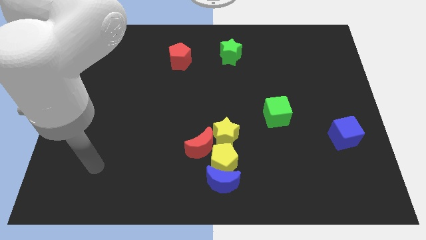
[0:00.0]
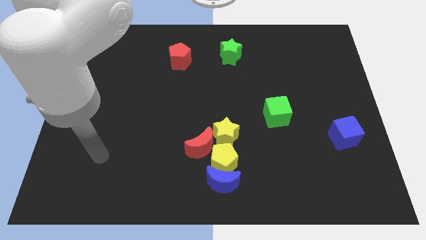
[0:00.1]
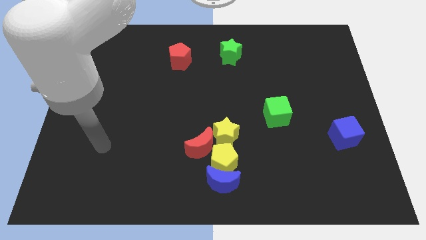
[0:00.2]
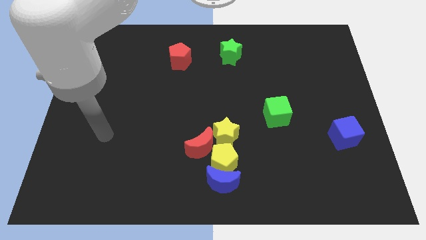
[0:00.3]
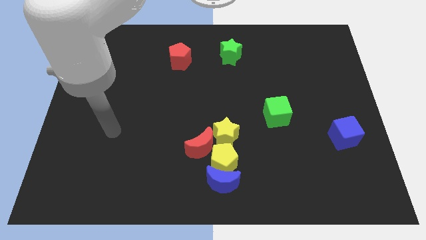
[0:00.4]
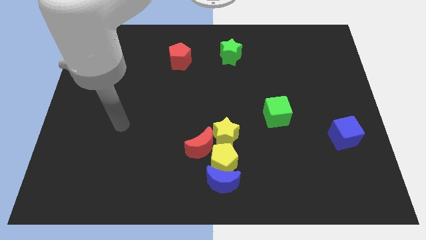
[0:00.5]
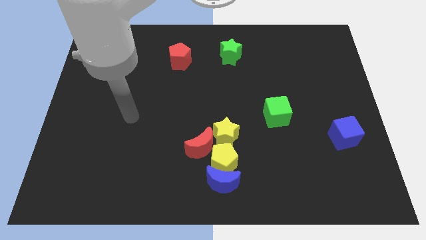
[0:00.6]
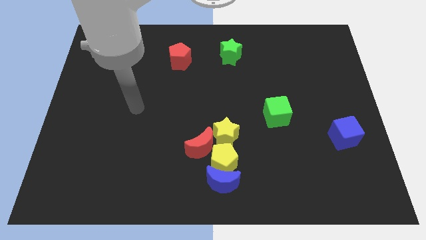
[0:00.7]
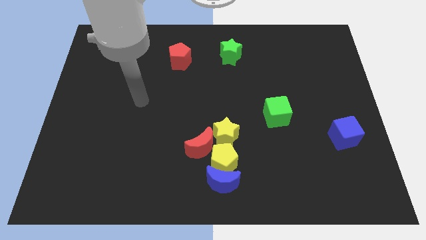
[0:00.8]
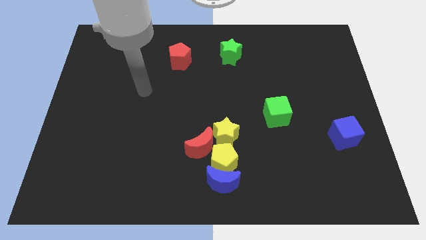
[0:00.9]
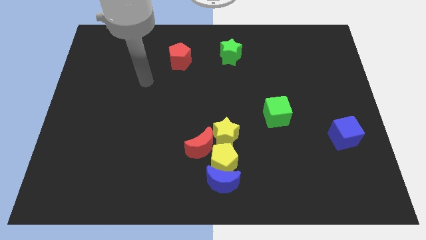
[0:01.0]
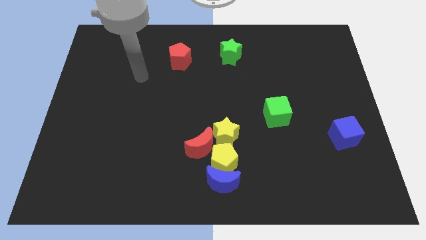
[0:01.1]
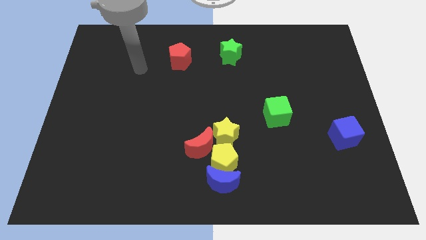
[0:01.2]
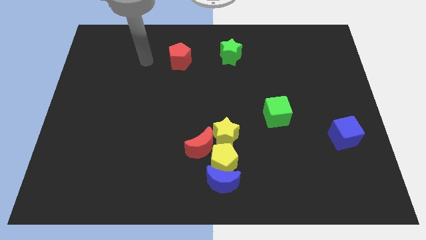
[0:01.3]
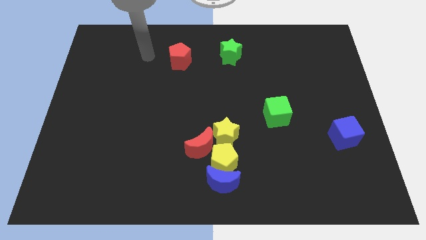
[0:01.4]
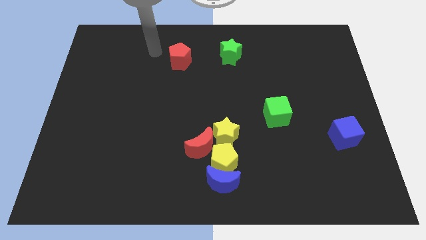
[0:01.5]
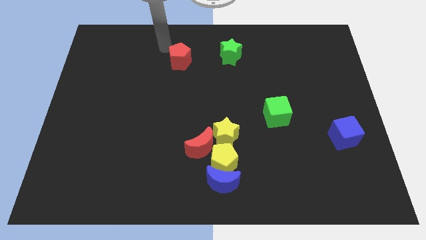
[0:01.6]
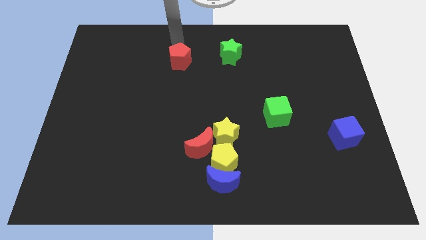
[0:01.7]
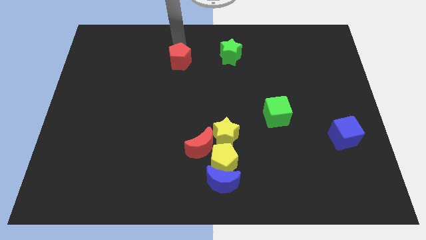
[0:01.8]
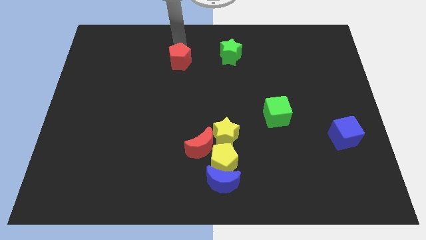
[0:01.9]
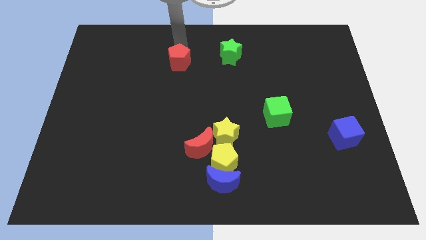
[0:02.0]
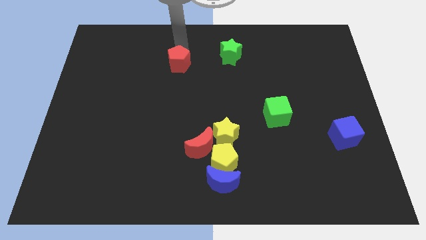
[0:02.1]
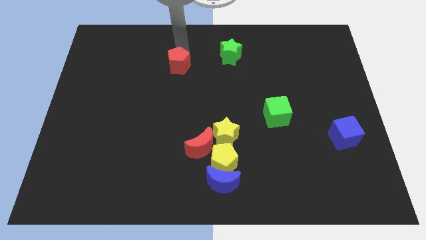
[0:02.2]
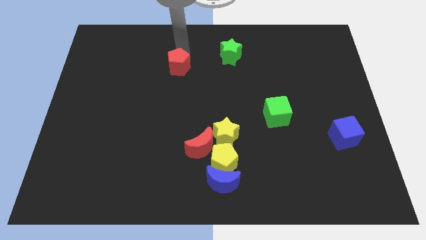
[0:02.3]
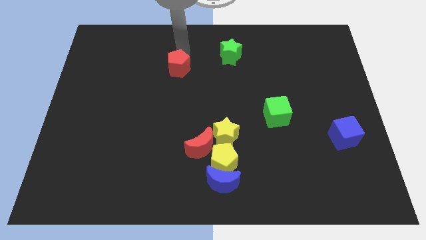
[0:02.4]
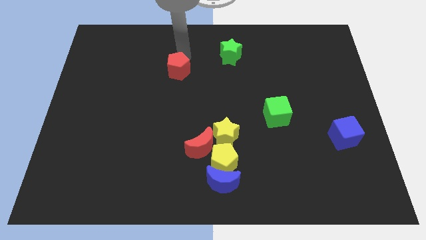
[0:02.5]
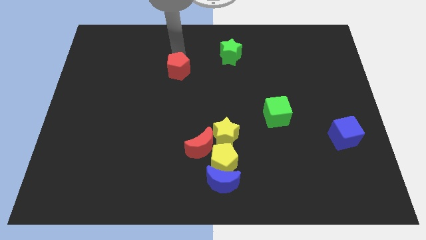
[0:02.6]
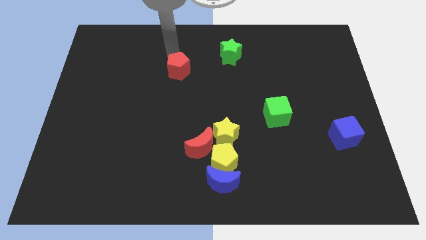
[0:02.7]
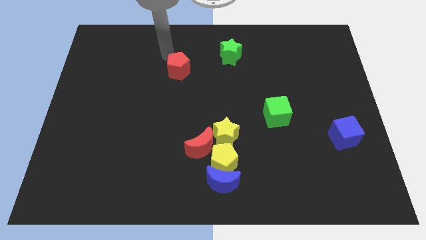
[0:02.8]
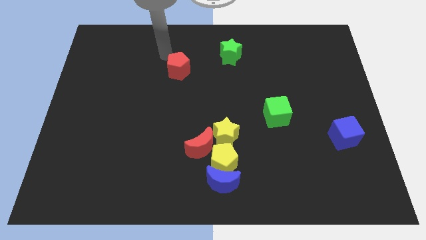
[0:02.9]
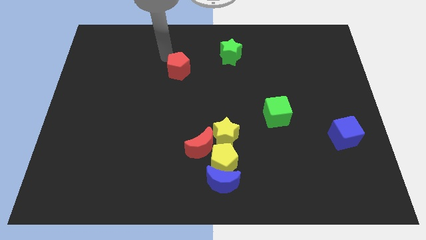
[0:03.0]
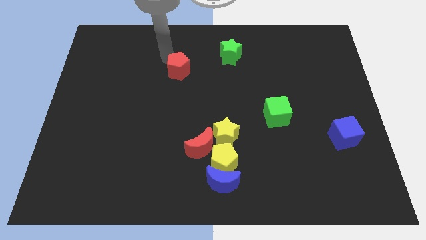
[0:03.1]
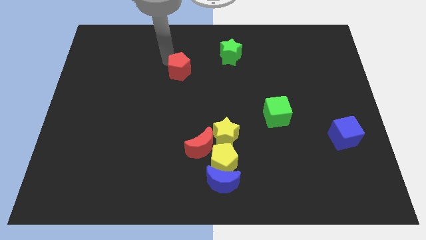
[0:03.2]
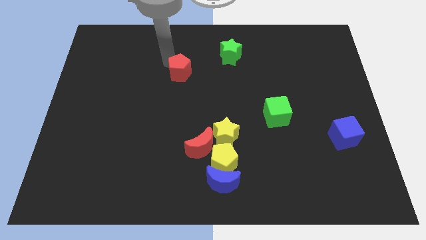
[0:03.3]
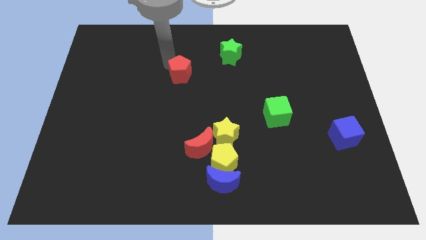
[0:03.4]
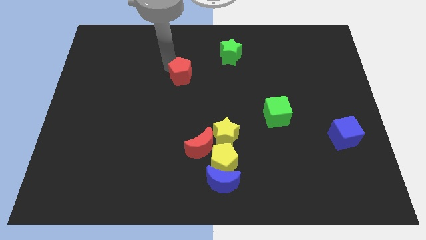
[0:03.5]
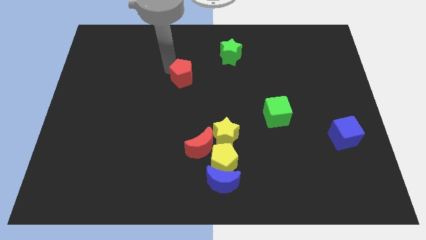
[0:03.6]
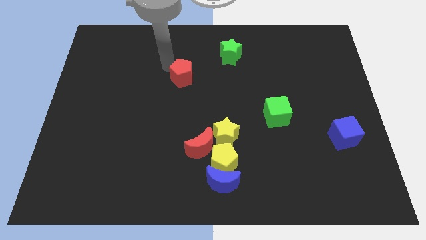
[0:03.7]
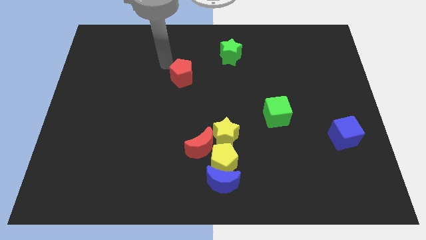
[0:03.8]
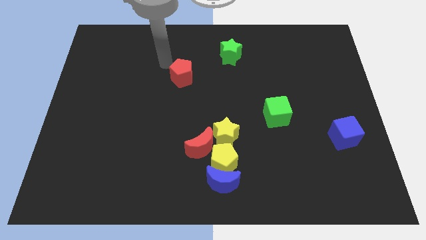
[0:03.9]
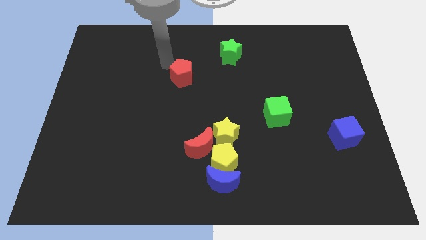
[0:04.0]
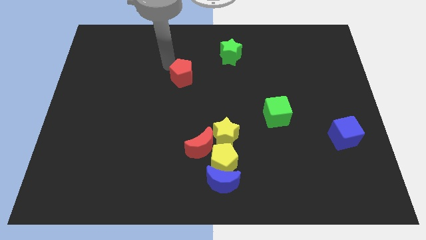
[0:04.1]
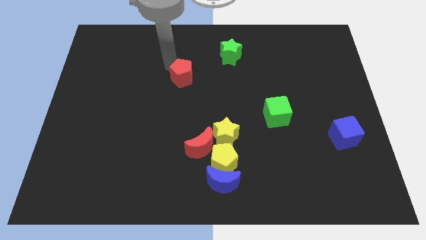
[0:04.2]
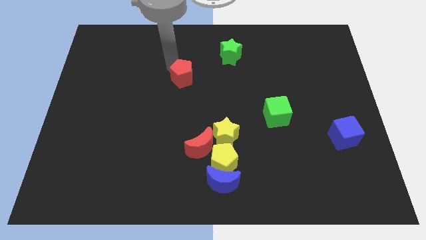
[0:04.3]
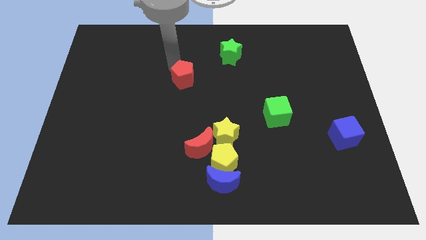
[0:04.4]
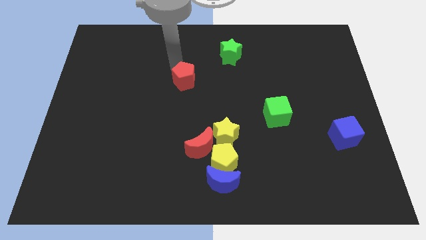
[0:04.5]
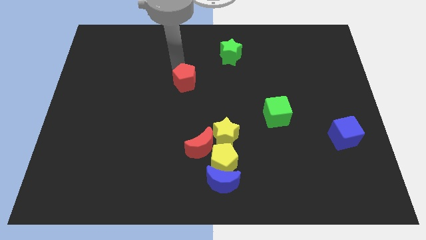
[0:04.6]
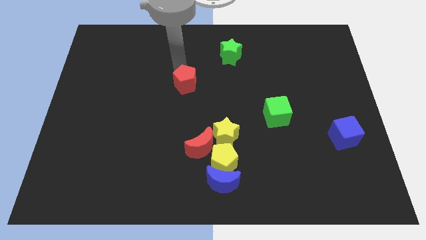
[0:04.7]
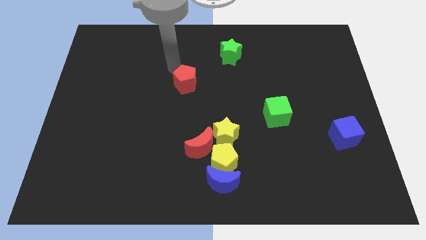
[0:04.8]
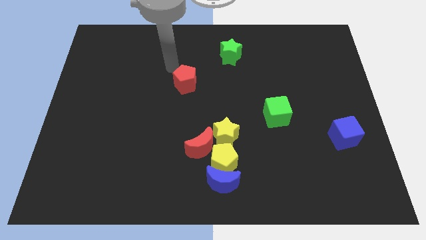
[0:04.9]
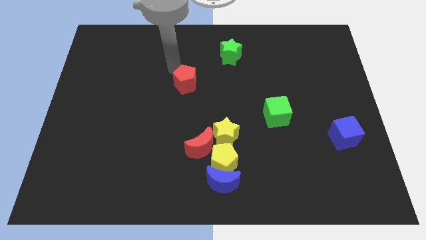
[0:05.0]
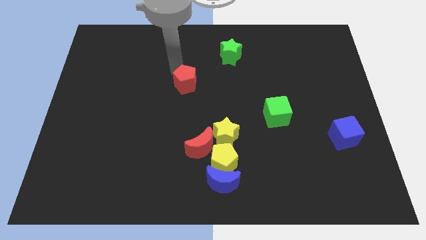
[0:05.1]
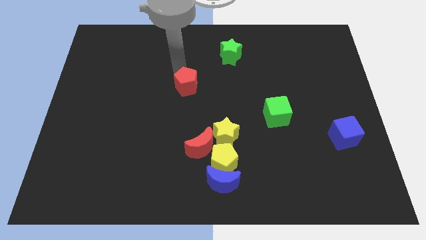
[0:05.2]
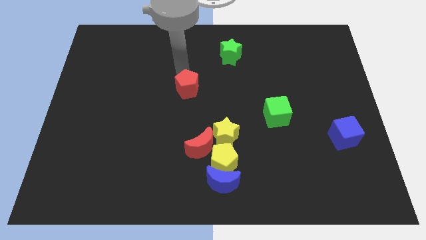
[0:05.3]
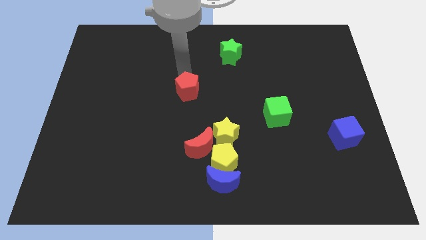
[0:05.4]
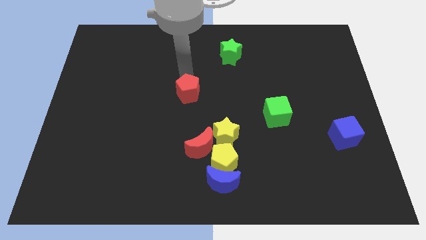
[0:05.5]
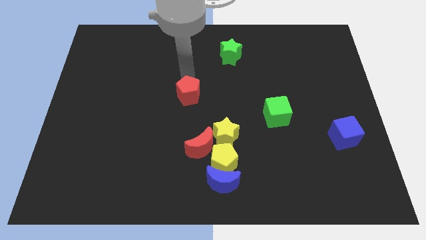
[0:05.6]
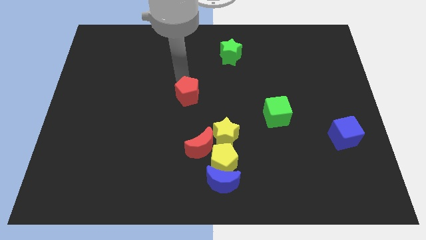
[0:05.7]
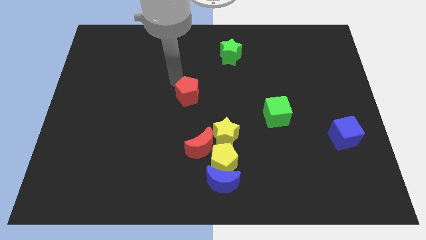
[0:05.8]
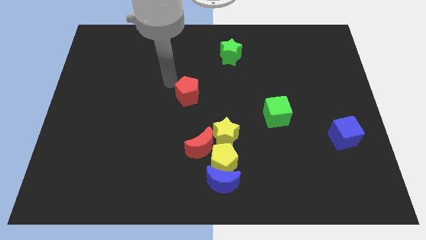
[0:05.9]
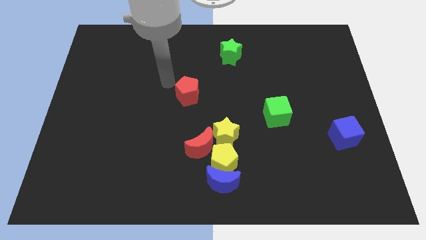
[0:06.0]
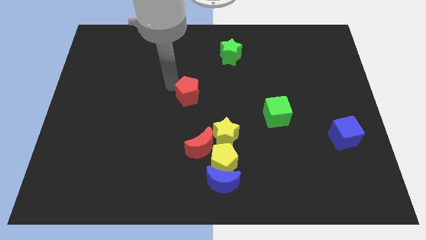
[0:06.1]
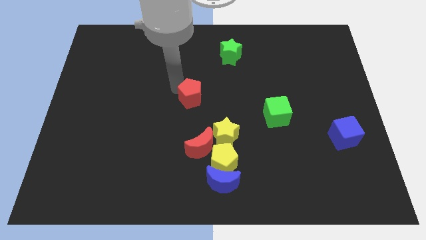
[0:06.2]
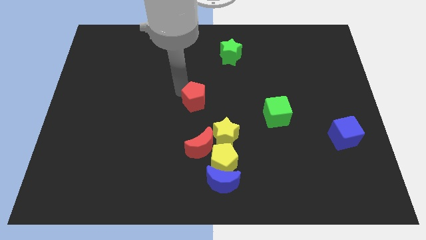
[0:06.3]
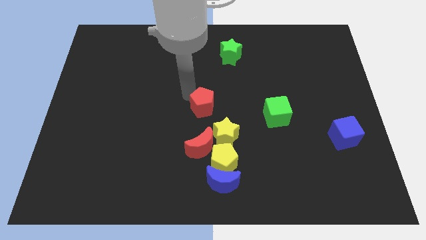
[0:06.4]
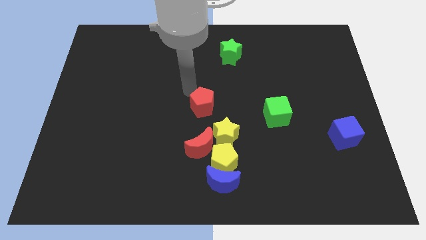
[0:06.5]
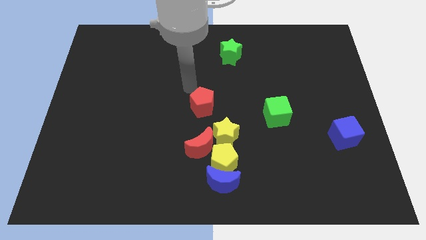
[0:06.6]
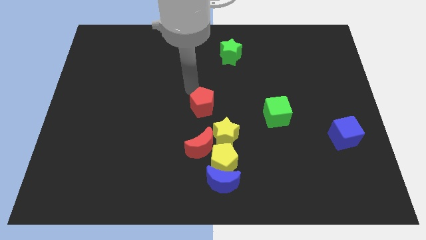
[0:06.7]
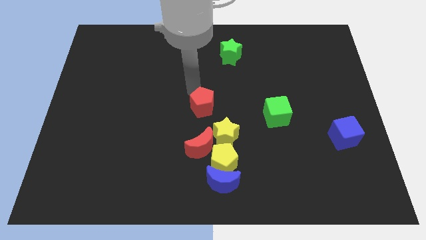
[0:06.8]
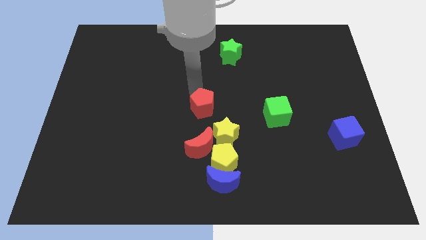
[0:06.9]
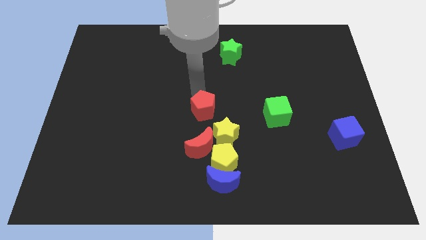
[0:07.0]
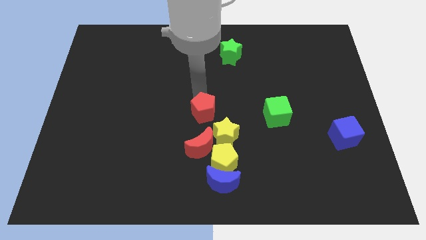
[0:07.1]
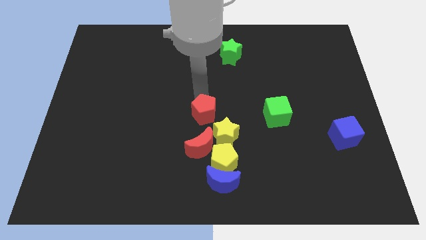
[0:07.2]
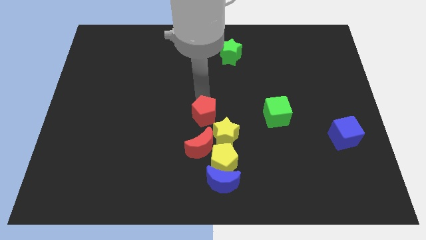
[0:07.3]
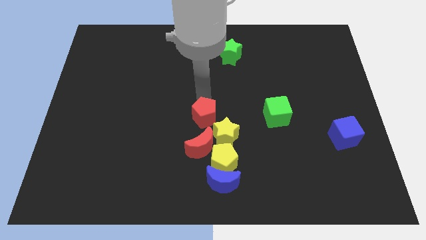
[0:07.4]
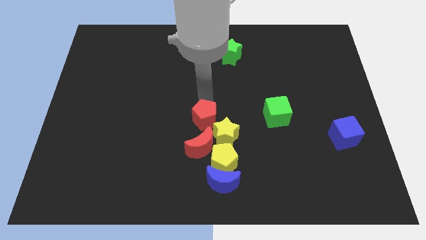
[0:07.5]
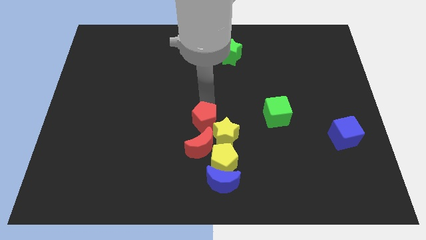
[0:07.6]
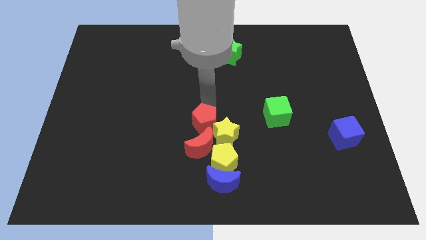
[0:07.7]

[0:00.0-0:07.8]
put the red pentagon next to the yellow star
